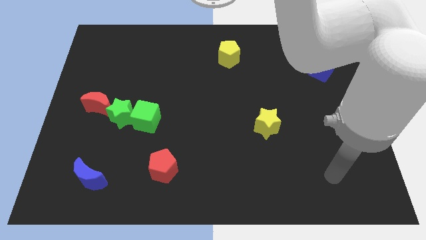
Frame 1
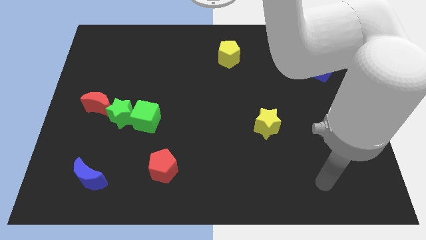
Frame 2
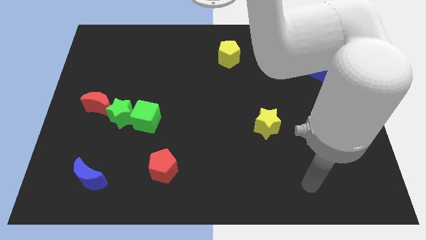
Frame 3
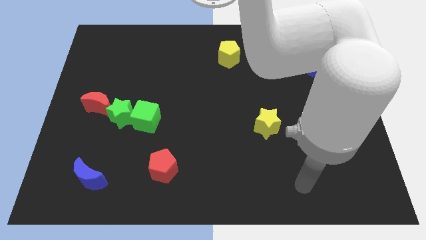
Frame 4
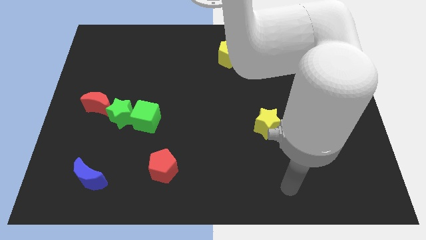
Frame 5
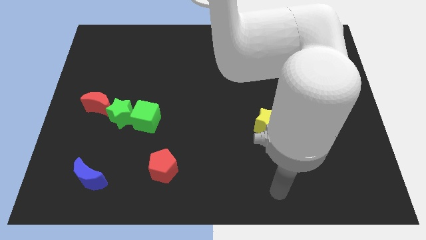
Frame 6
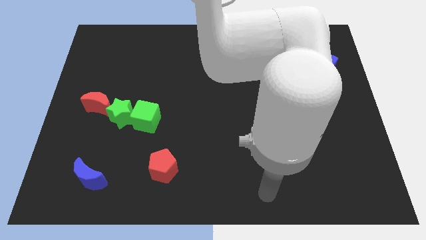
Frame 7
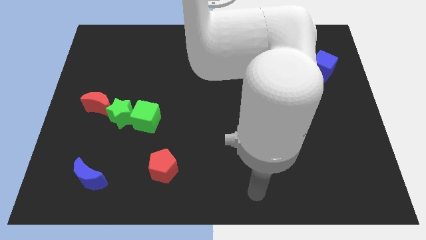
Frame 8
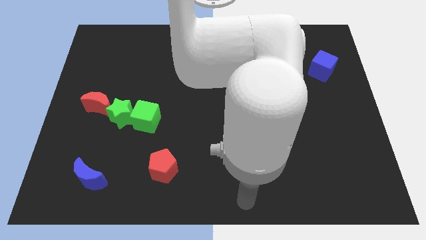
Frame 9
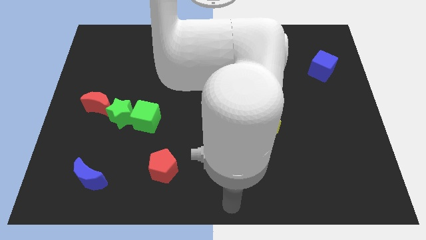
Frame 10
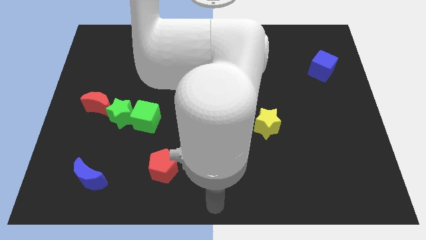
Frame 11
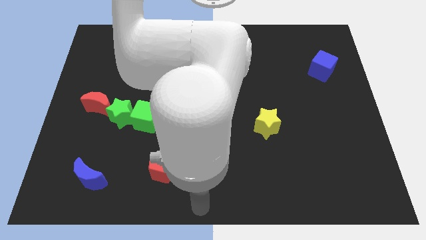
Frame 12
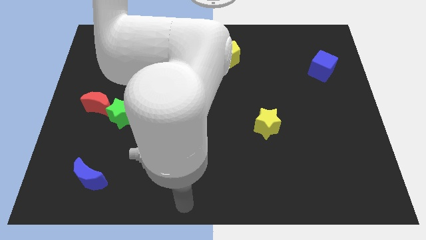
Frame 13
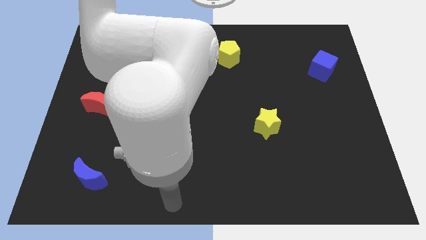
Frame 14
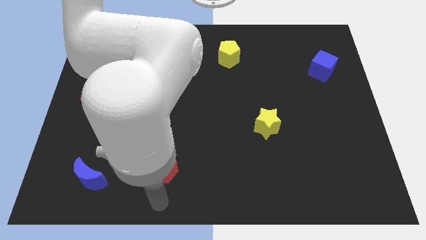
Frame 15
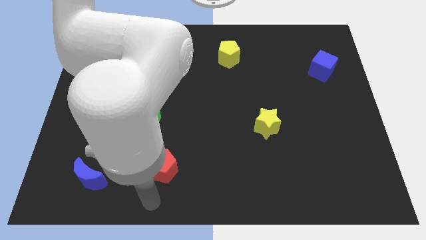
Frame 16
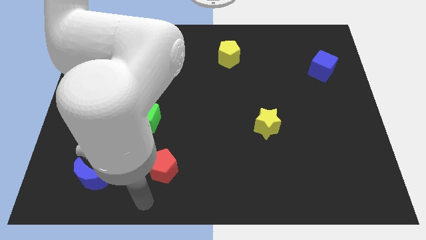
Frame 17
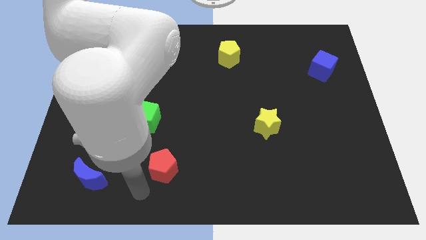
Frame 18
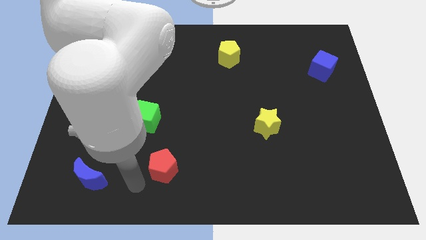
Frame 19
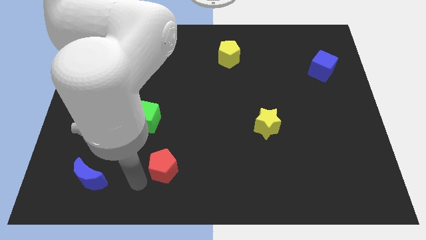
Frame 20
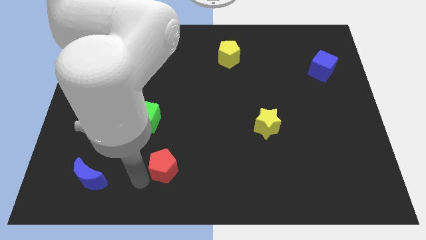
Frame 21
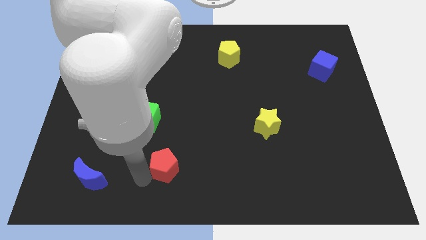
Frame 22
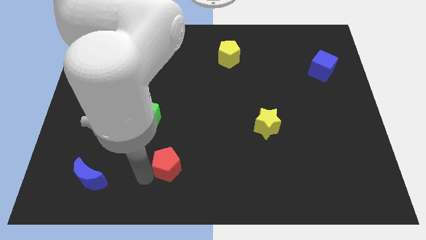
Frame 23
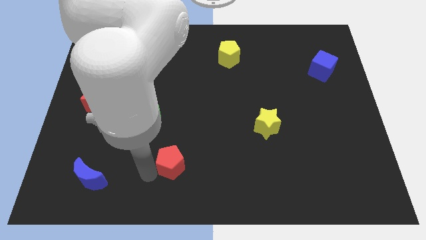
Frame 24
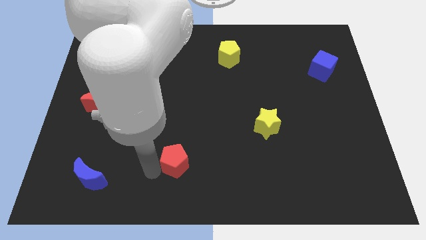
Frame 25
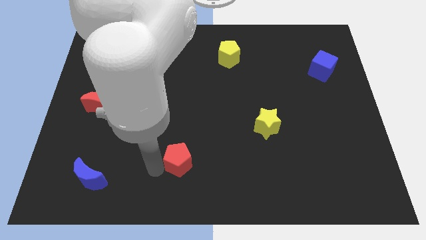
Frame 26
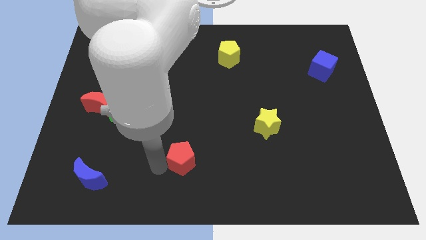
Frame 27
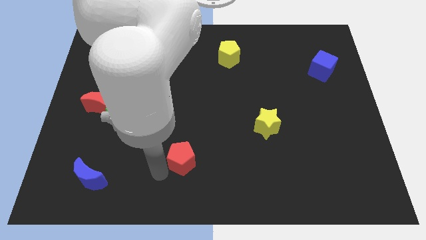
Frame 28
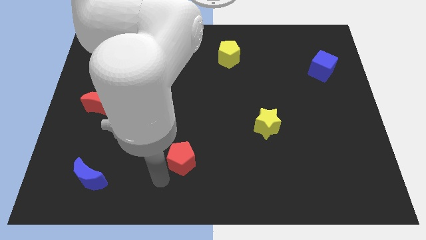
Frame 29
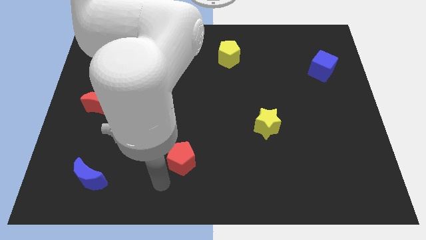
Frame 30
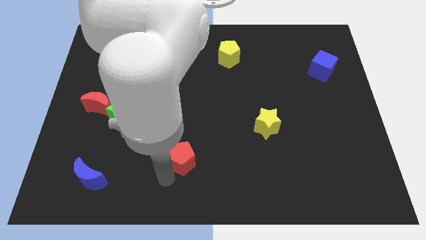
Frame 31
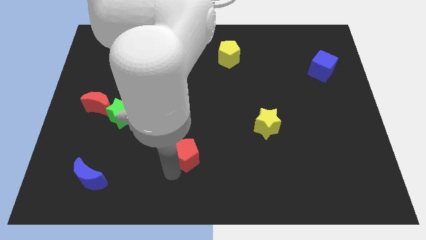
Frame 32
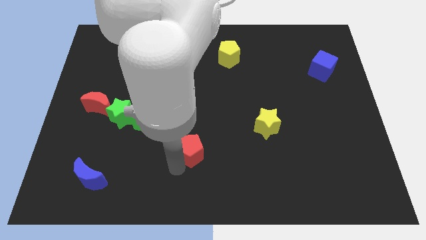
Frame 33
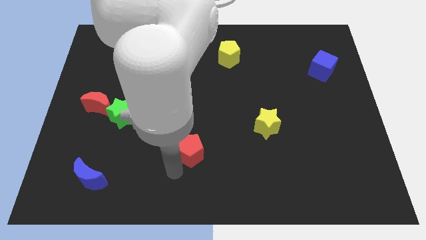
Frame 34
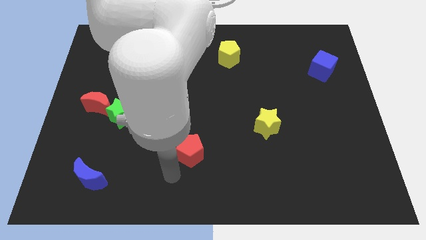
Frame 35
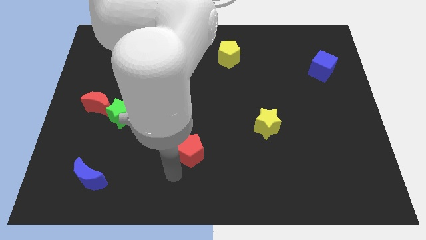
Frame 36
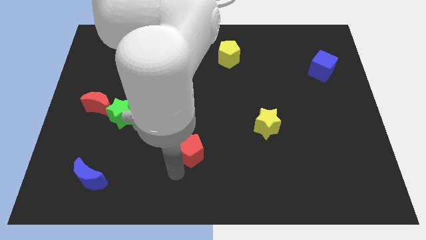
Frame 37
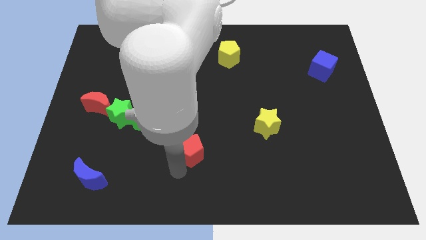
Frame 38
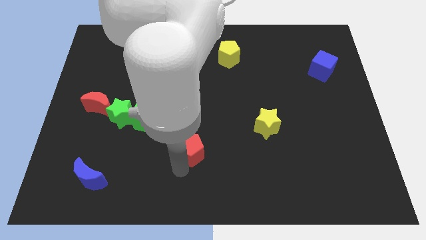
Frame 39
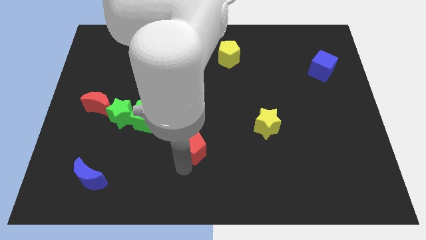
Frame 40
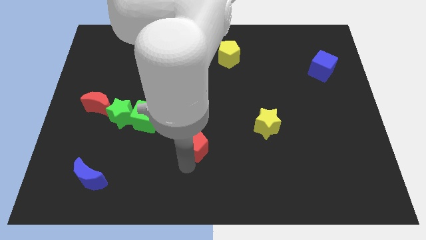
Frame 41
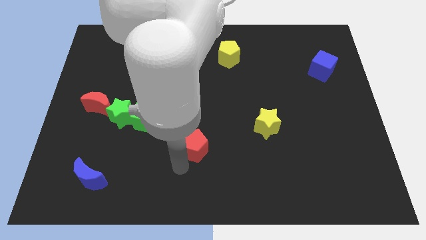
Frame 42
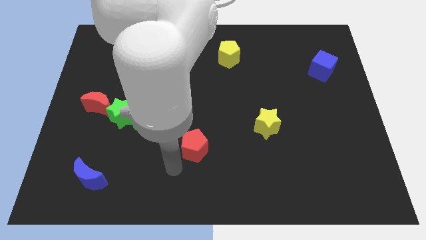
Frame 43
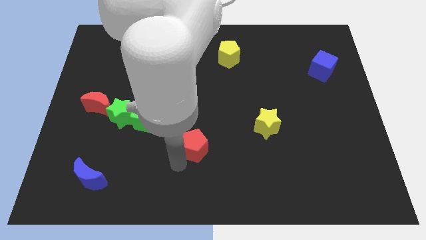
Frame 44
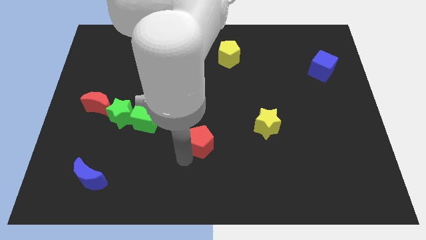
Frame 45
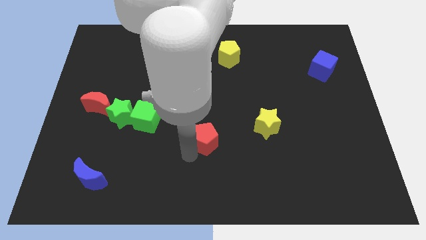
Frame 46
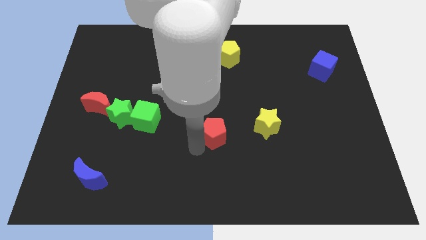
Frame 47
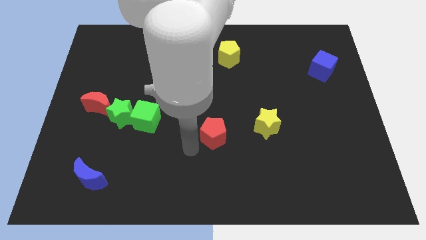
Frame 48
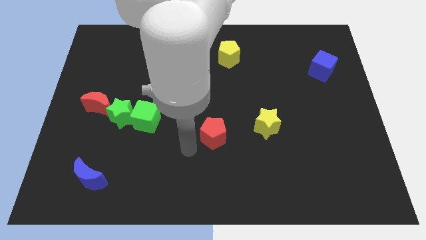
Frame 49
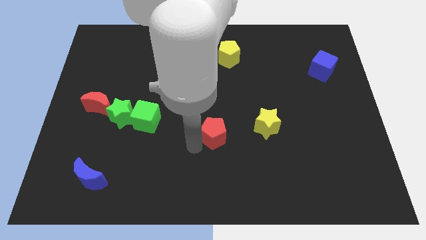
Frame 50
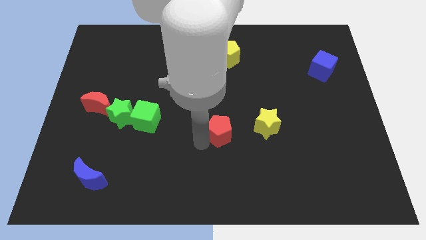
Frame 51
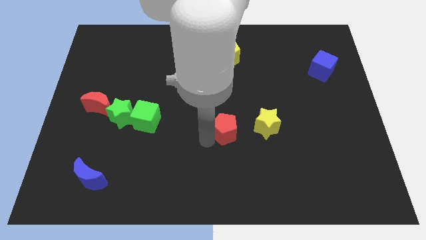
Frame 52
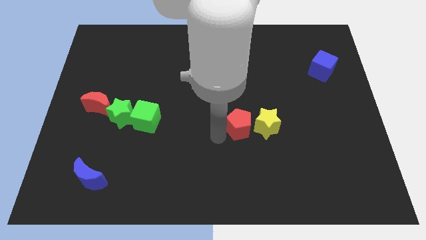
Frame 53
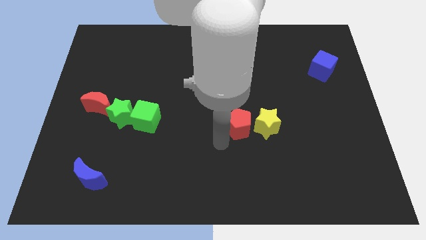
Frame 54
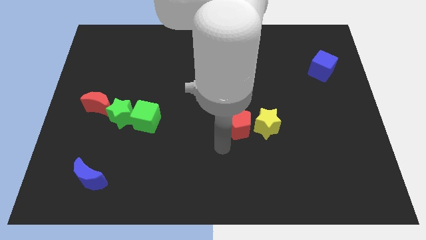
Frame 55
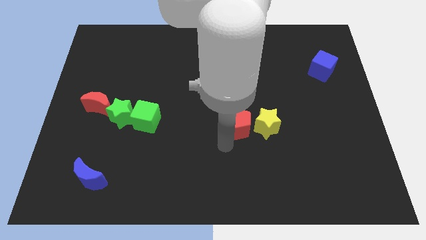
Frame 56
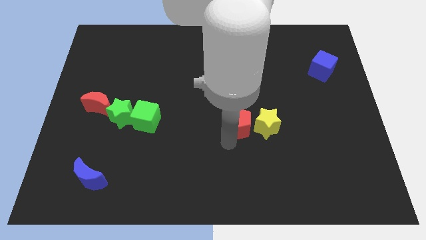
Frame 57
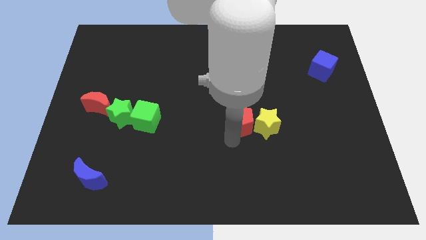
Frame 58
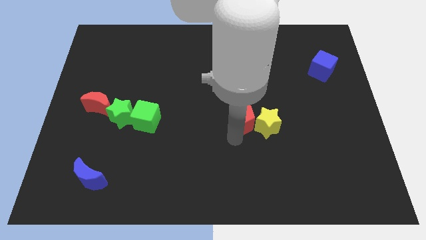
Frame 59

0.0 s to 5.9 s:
slide the red pentagon up and to the right

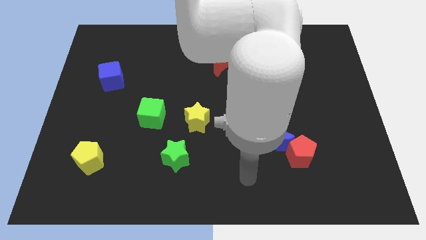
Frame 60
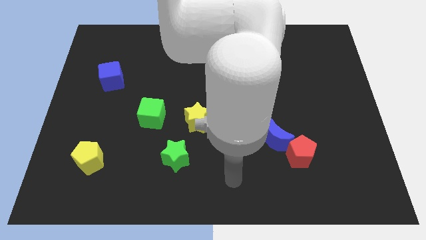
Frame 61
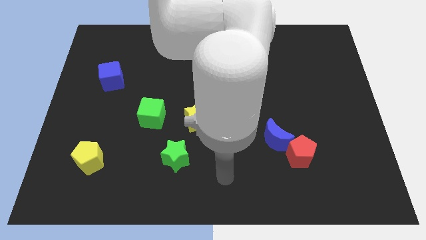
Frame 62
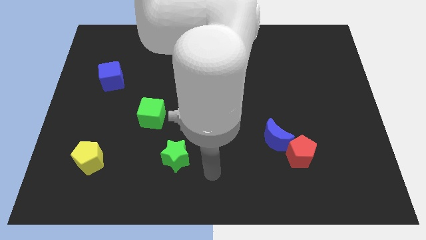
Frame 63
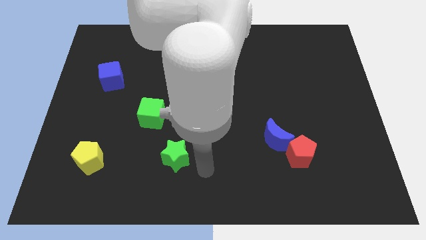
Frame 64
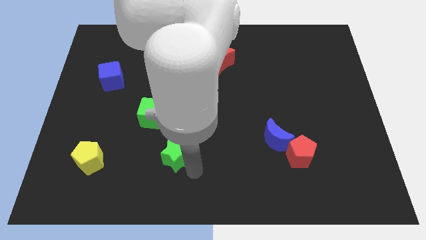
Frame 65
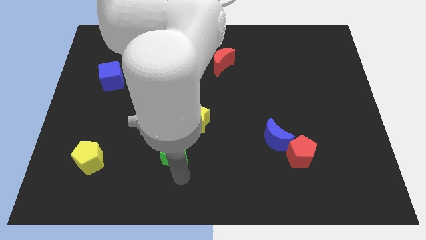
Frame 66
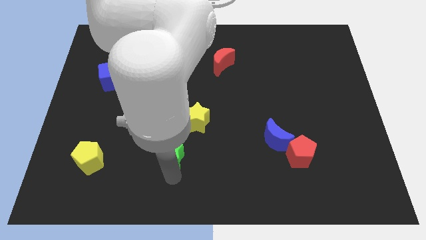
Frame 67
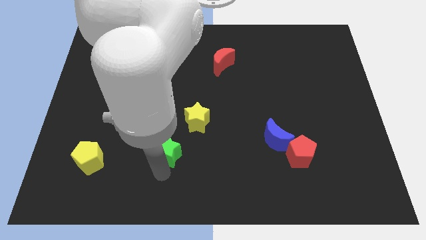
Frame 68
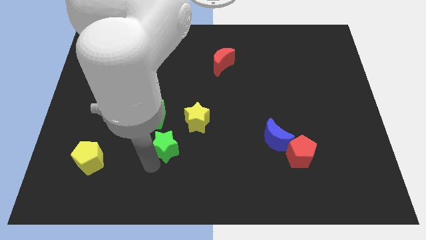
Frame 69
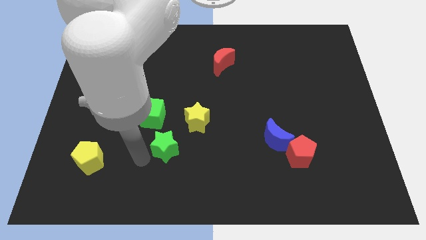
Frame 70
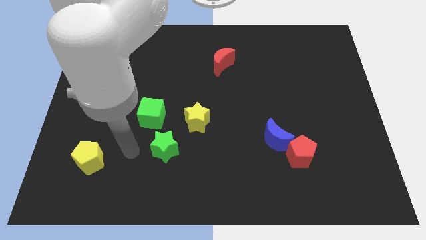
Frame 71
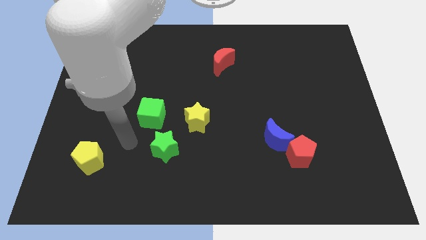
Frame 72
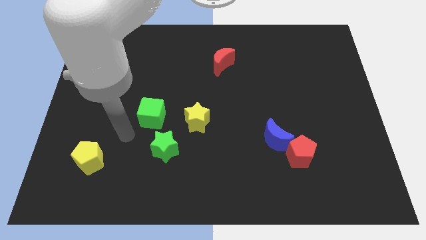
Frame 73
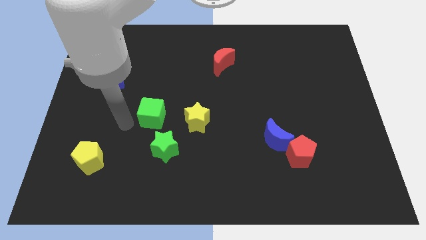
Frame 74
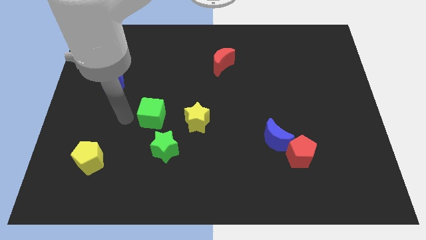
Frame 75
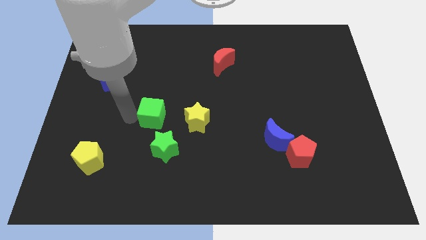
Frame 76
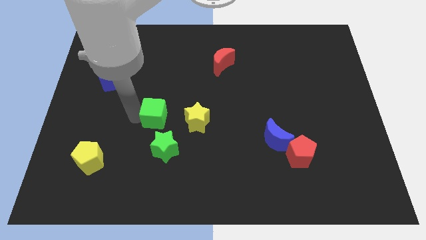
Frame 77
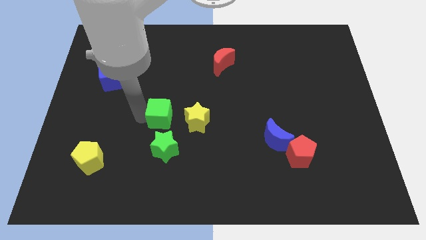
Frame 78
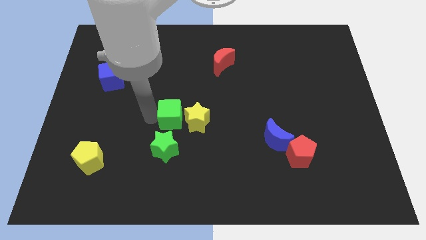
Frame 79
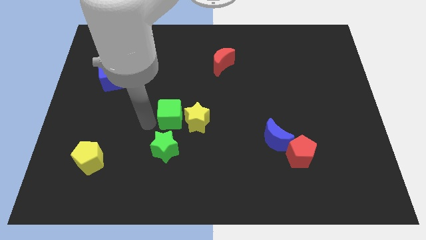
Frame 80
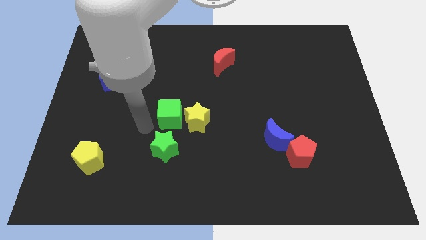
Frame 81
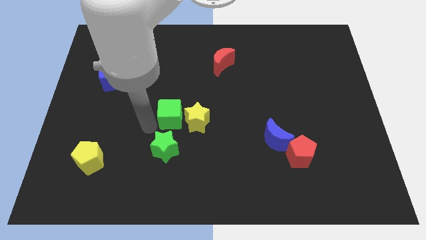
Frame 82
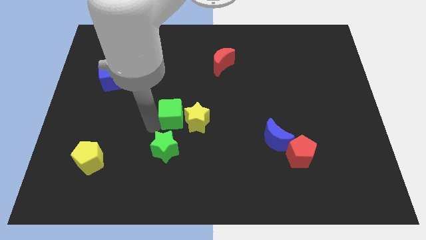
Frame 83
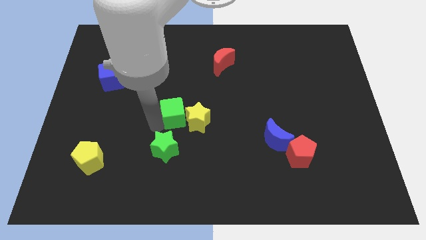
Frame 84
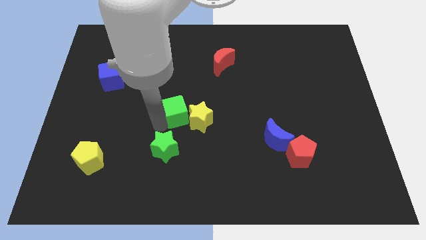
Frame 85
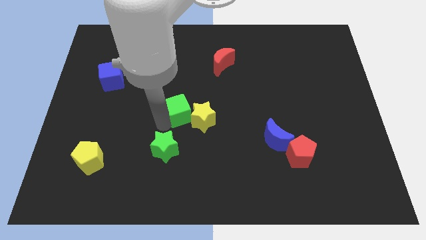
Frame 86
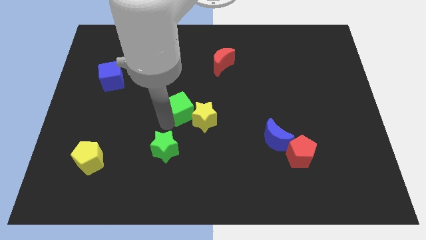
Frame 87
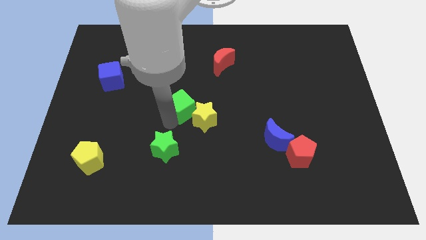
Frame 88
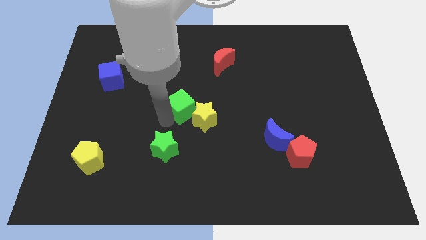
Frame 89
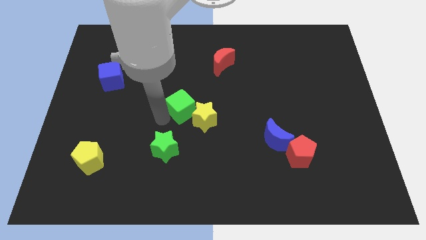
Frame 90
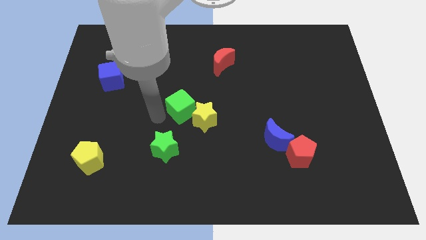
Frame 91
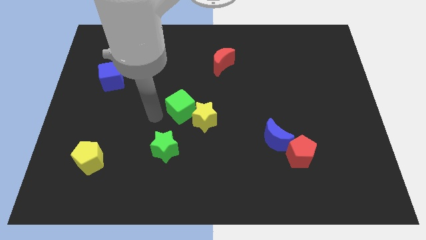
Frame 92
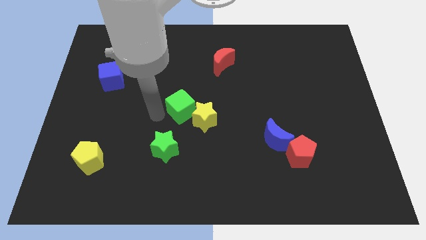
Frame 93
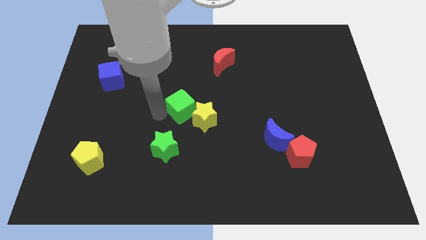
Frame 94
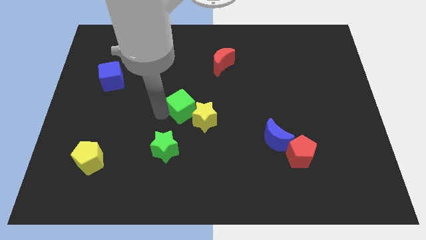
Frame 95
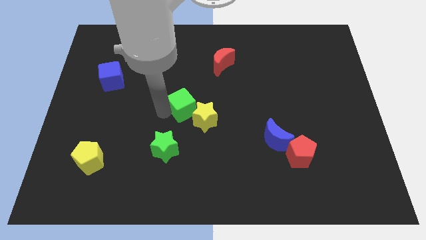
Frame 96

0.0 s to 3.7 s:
move the green cube a bit right
